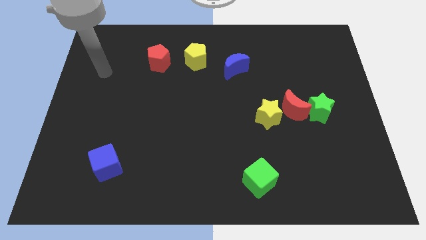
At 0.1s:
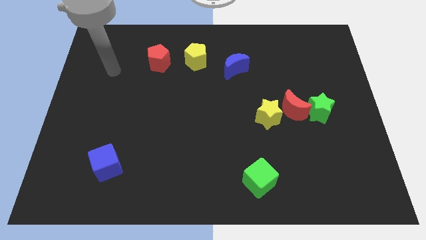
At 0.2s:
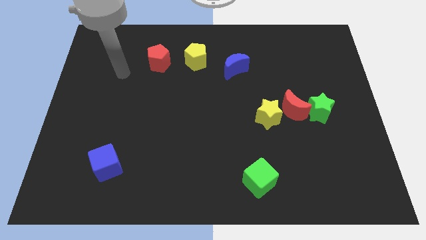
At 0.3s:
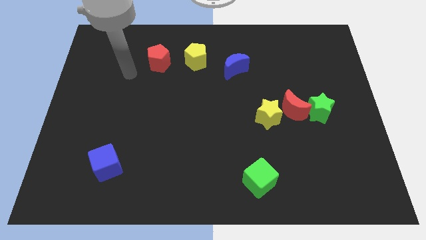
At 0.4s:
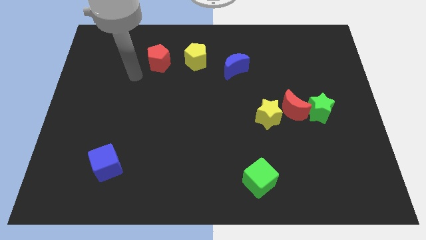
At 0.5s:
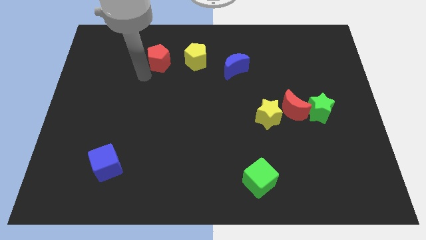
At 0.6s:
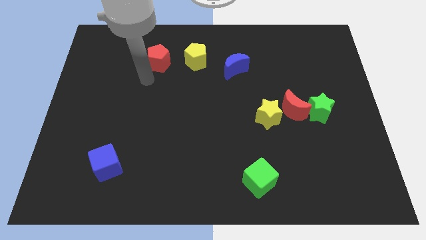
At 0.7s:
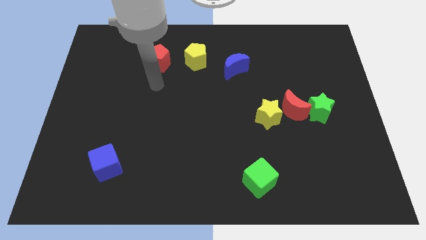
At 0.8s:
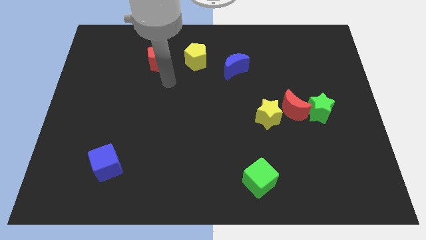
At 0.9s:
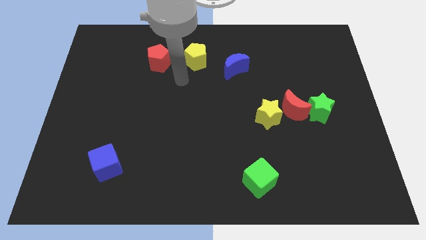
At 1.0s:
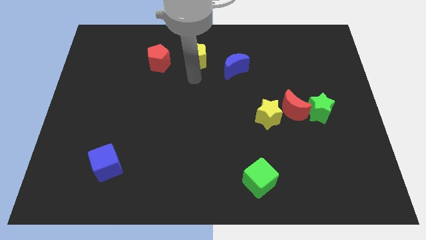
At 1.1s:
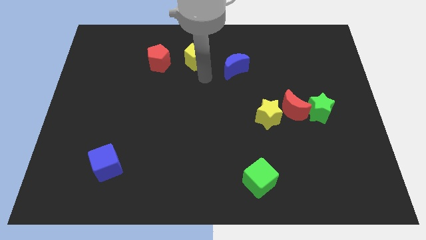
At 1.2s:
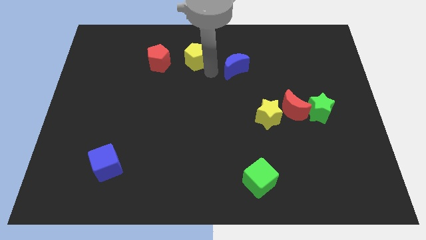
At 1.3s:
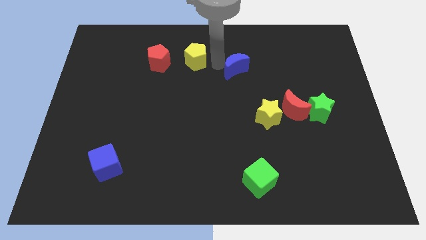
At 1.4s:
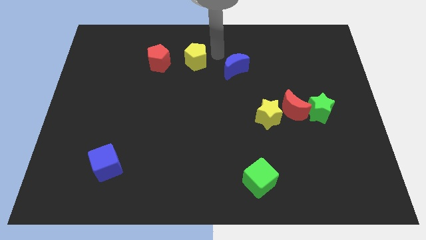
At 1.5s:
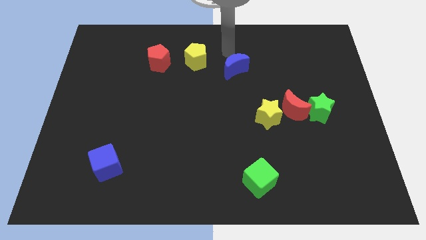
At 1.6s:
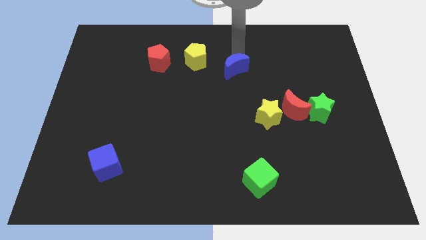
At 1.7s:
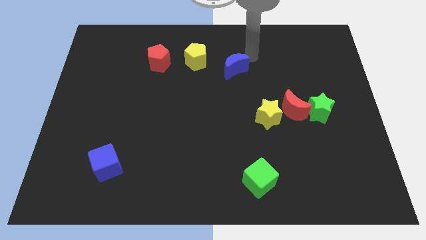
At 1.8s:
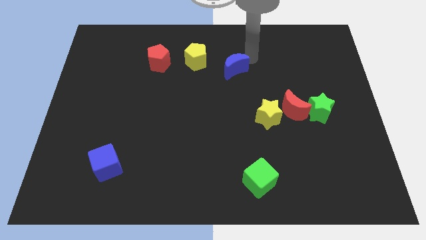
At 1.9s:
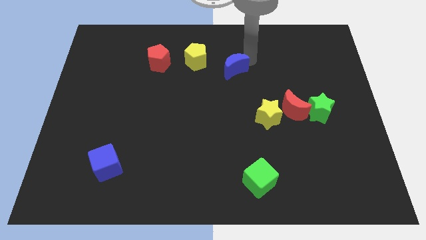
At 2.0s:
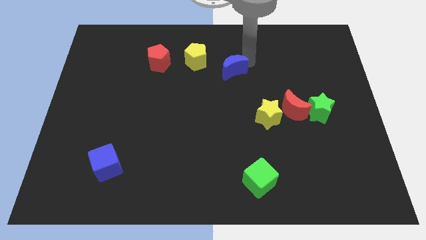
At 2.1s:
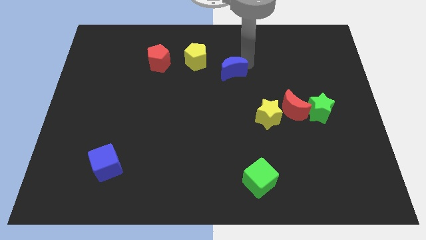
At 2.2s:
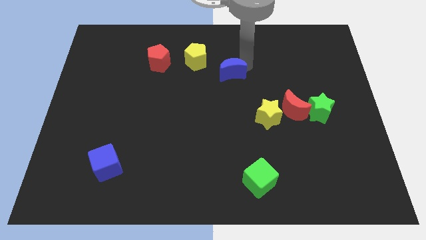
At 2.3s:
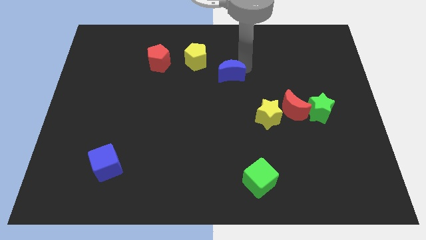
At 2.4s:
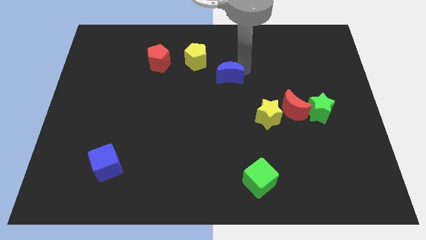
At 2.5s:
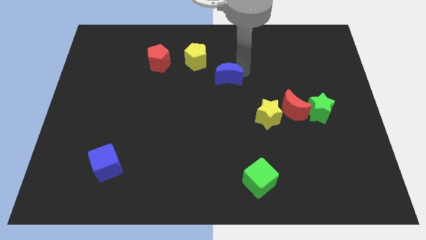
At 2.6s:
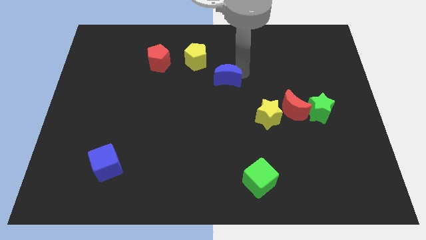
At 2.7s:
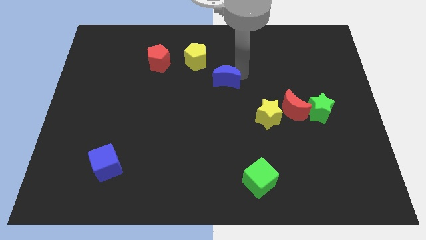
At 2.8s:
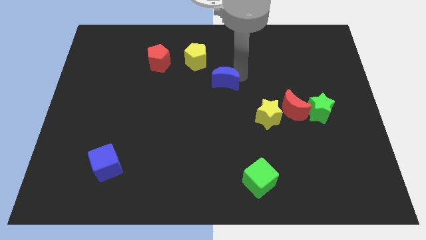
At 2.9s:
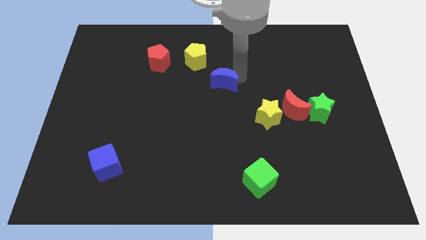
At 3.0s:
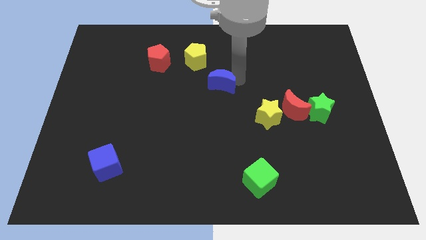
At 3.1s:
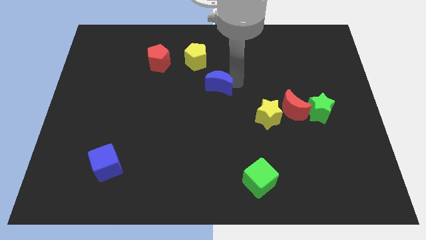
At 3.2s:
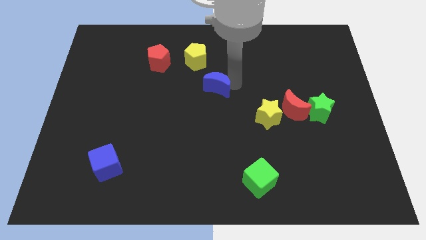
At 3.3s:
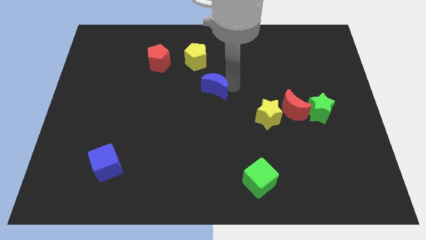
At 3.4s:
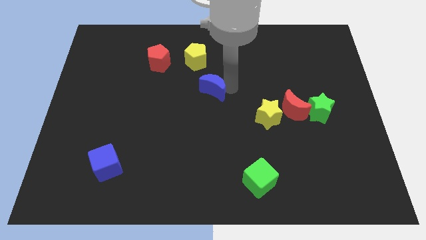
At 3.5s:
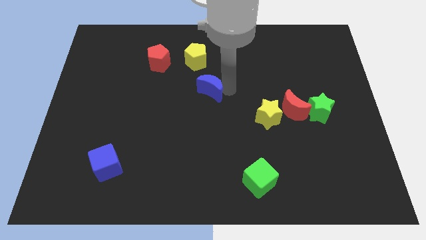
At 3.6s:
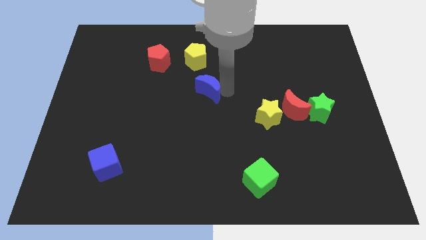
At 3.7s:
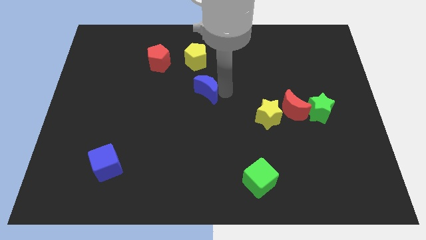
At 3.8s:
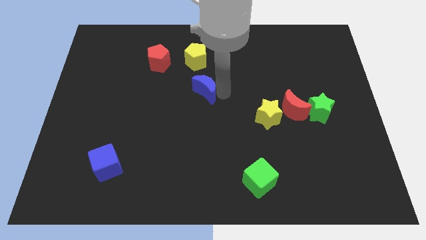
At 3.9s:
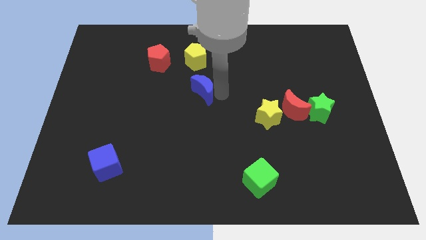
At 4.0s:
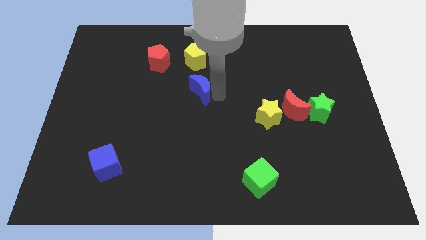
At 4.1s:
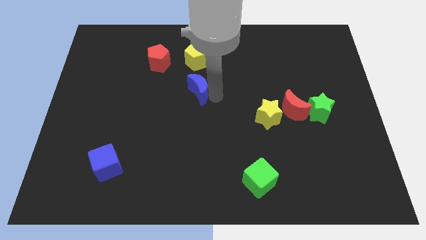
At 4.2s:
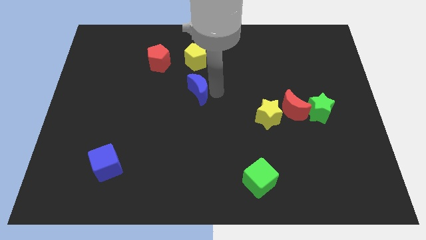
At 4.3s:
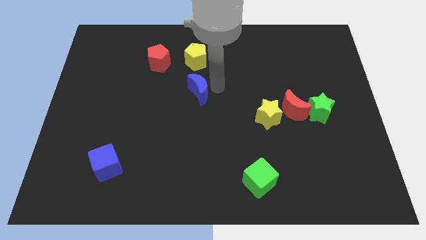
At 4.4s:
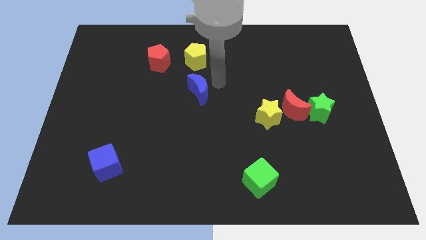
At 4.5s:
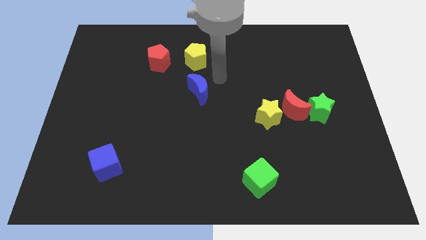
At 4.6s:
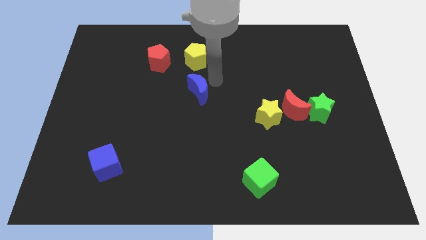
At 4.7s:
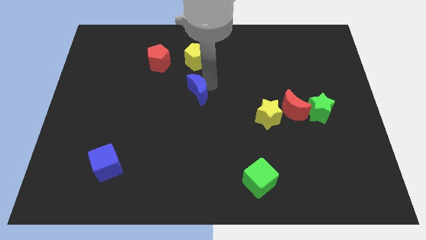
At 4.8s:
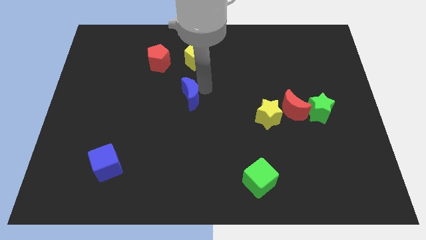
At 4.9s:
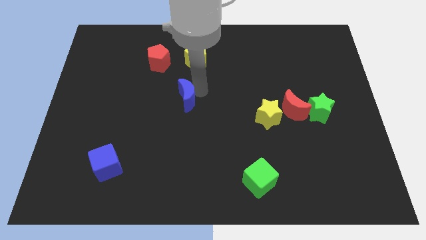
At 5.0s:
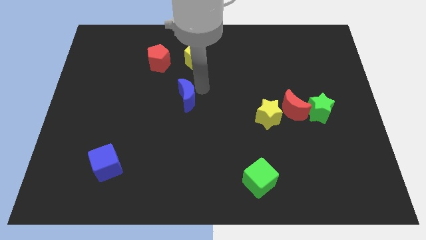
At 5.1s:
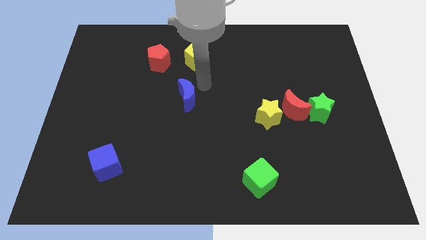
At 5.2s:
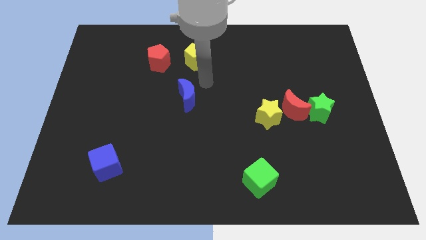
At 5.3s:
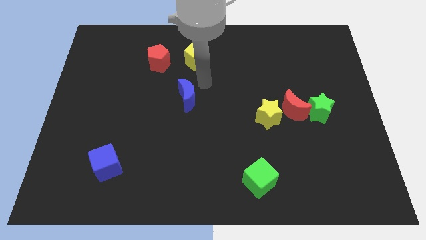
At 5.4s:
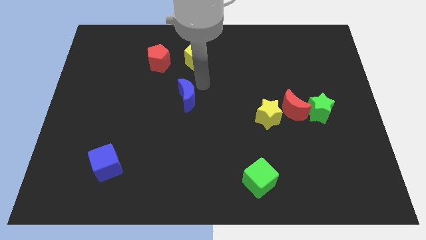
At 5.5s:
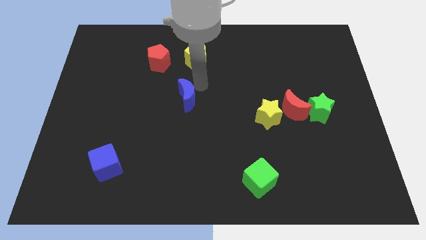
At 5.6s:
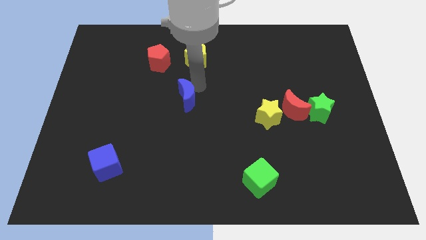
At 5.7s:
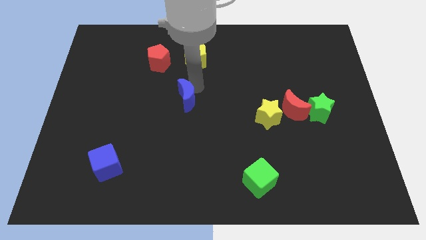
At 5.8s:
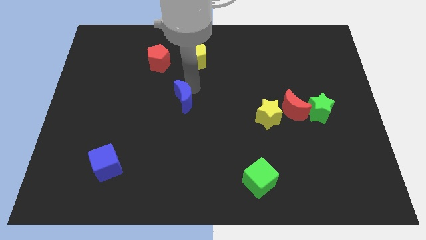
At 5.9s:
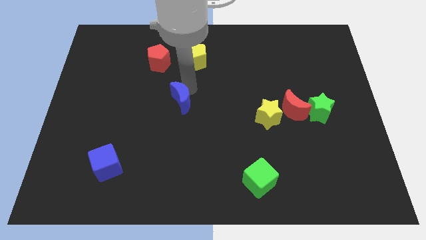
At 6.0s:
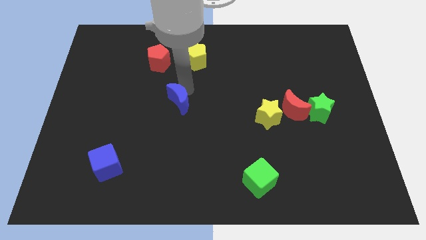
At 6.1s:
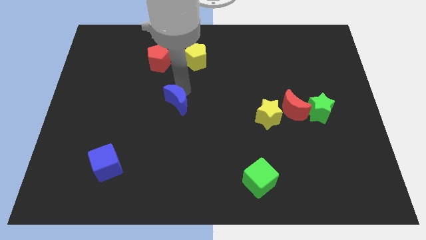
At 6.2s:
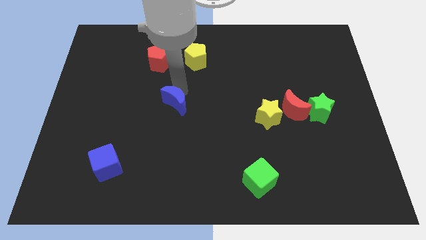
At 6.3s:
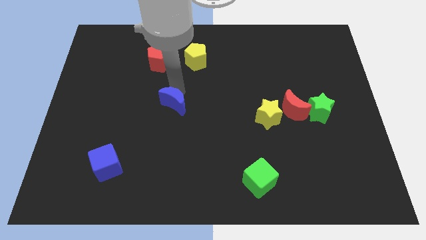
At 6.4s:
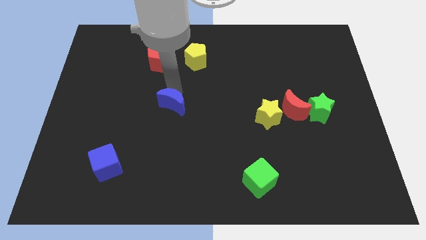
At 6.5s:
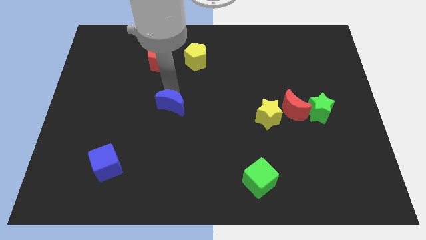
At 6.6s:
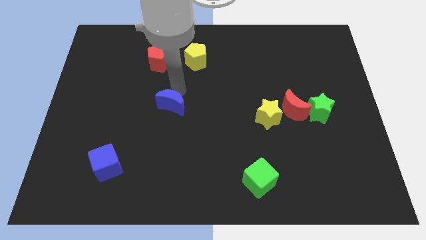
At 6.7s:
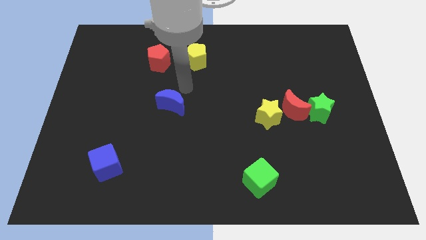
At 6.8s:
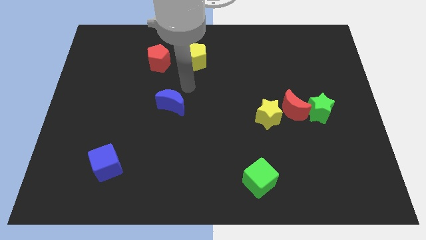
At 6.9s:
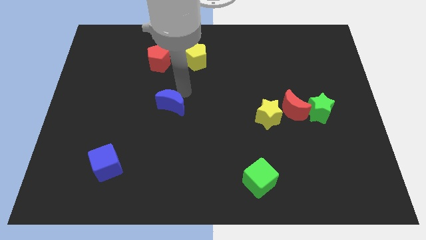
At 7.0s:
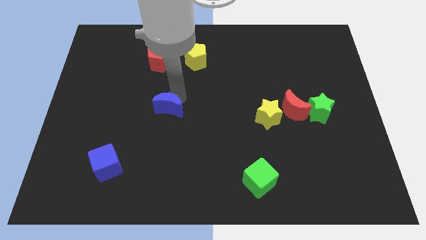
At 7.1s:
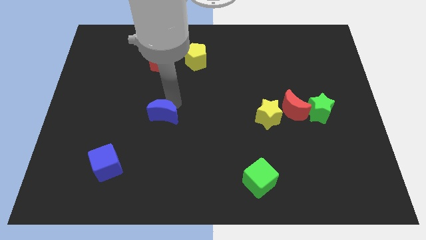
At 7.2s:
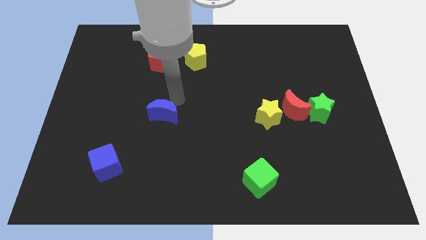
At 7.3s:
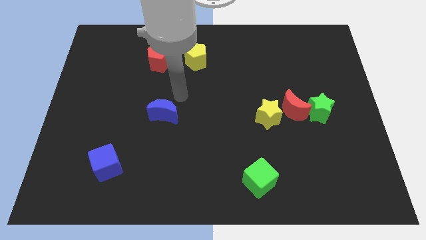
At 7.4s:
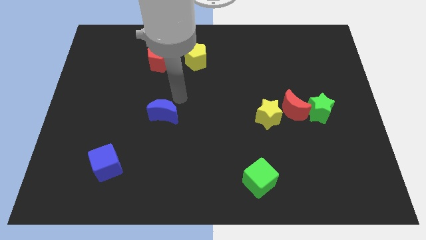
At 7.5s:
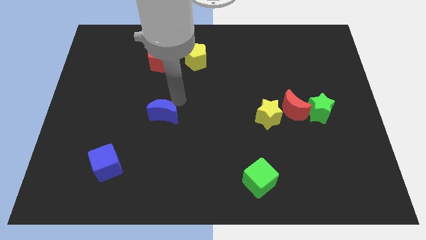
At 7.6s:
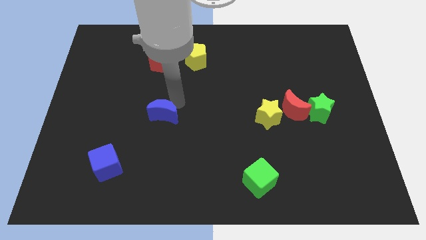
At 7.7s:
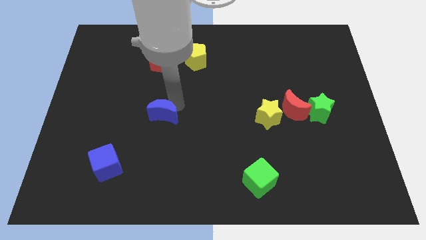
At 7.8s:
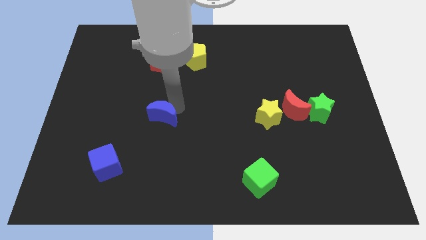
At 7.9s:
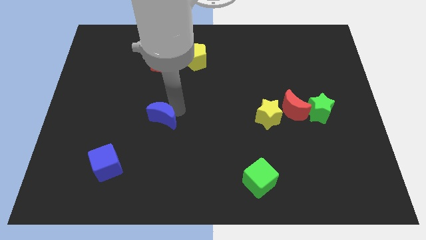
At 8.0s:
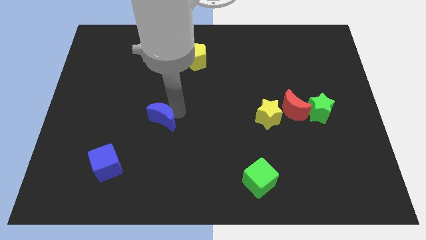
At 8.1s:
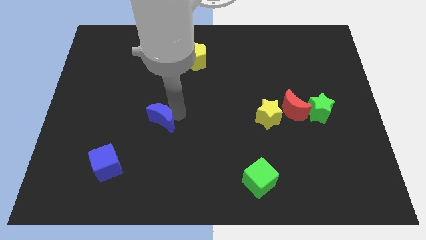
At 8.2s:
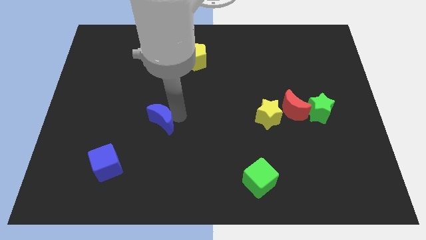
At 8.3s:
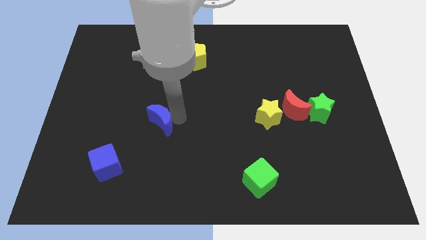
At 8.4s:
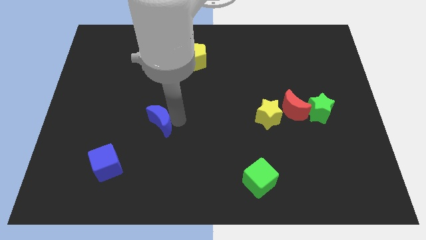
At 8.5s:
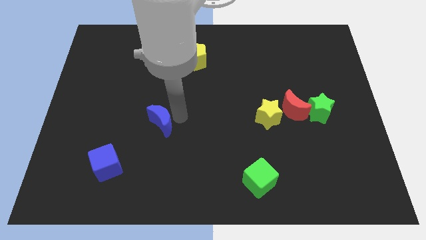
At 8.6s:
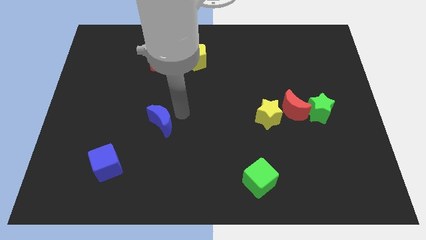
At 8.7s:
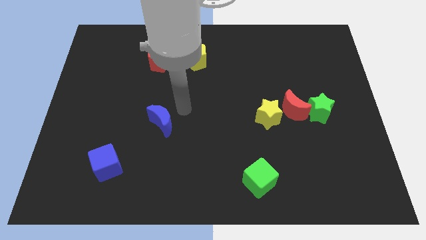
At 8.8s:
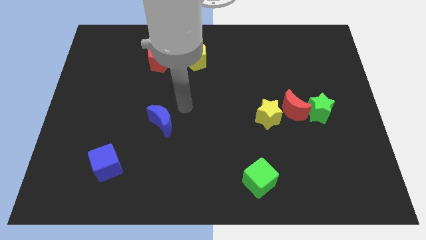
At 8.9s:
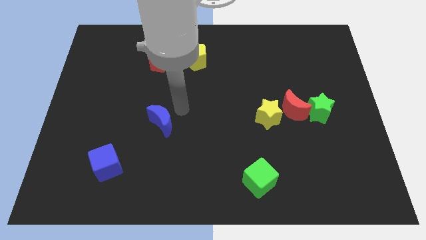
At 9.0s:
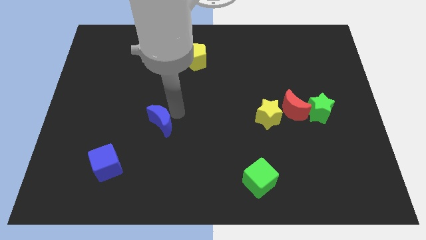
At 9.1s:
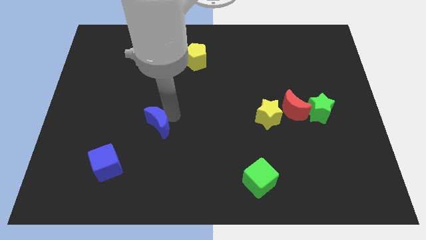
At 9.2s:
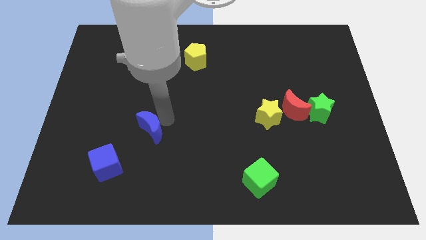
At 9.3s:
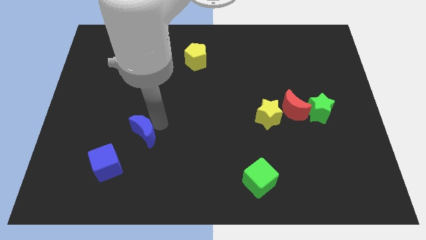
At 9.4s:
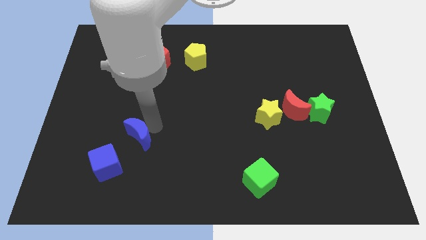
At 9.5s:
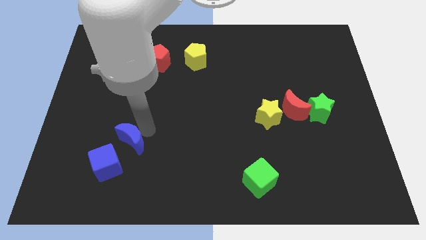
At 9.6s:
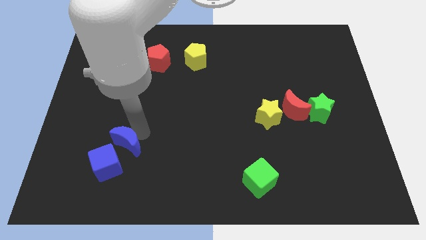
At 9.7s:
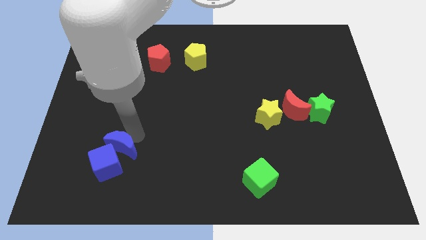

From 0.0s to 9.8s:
push the blue moon next to the blue cube
